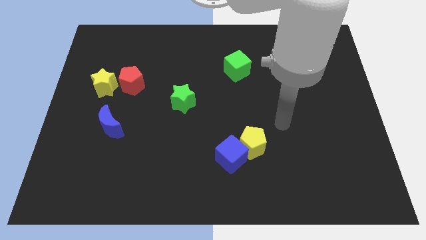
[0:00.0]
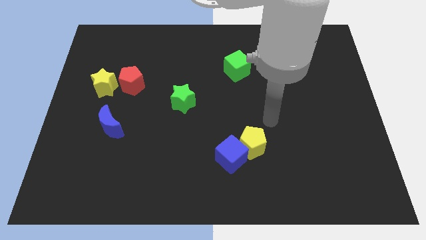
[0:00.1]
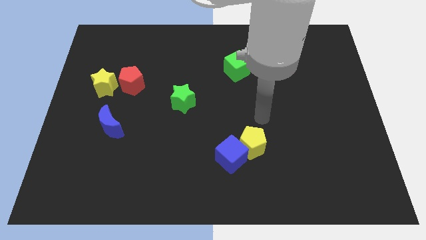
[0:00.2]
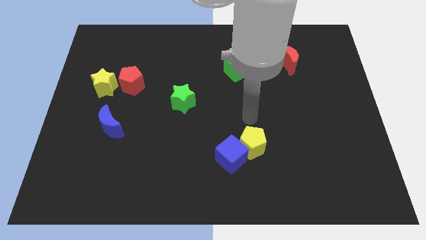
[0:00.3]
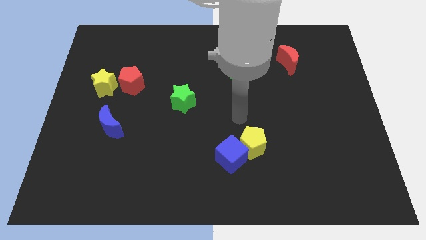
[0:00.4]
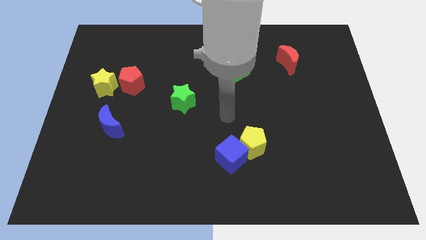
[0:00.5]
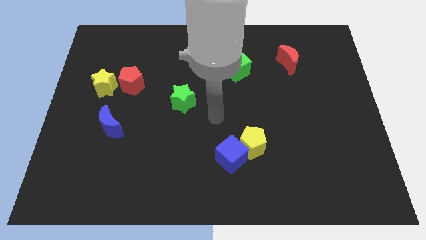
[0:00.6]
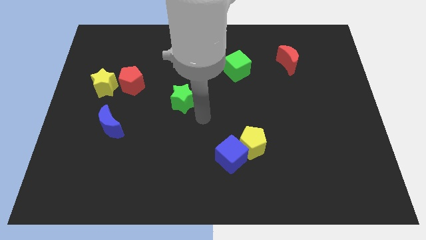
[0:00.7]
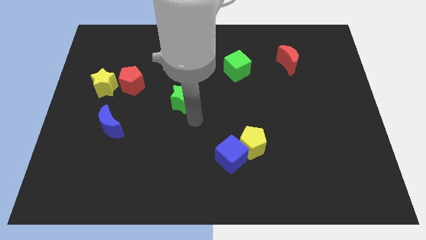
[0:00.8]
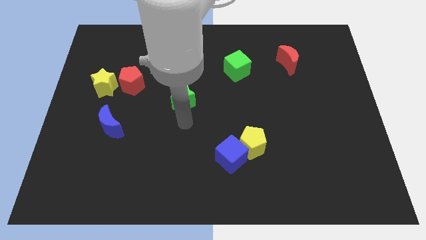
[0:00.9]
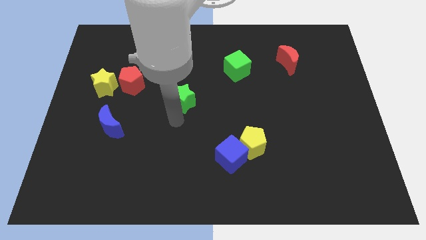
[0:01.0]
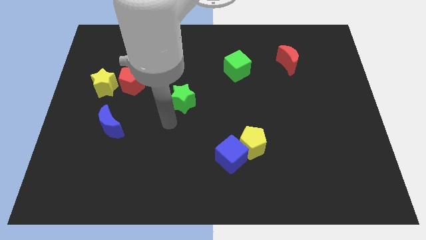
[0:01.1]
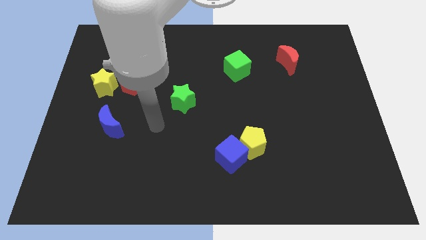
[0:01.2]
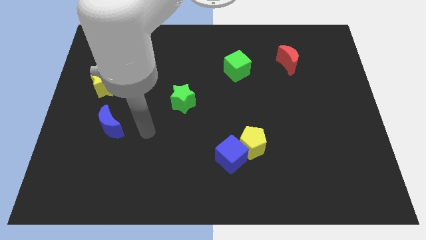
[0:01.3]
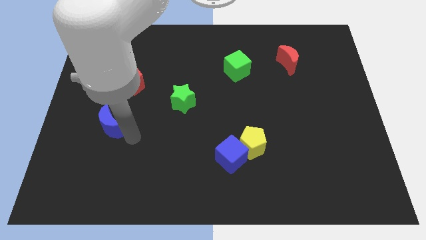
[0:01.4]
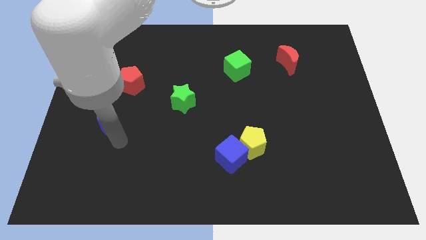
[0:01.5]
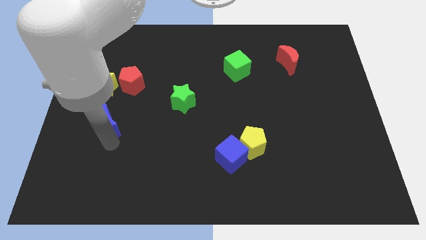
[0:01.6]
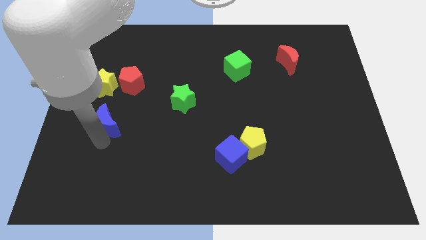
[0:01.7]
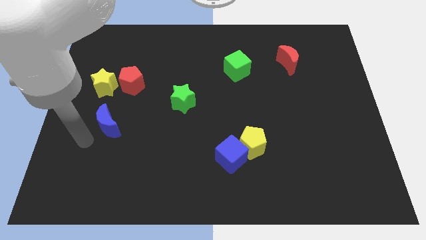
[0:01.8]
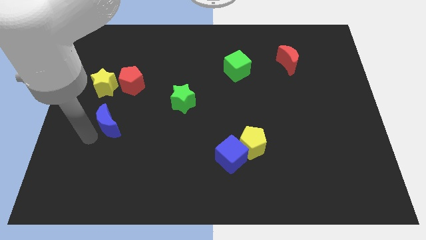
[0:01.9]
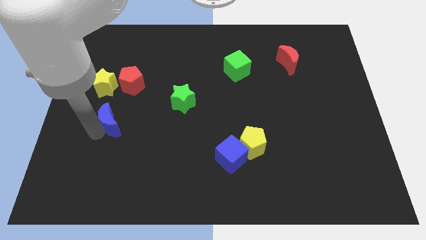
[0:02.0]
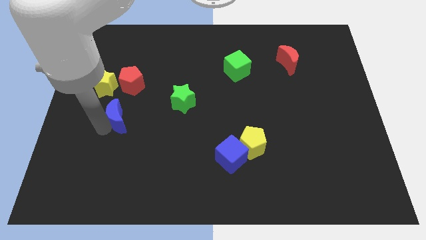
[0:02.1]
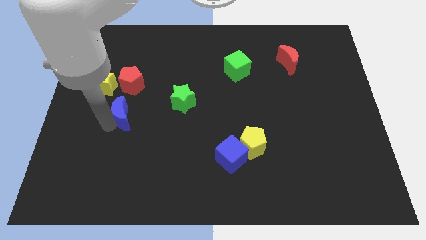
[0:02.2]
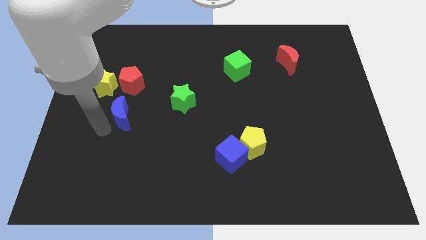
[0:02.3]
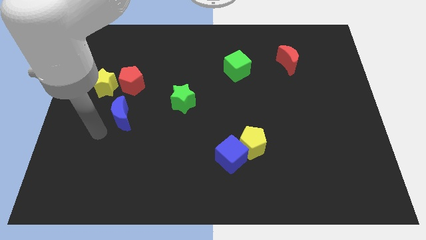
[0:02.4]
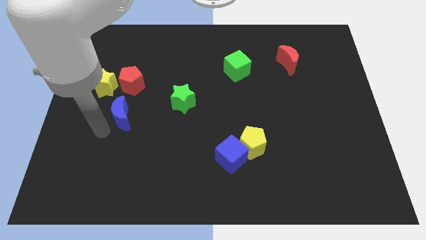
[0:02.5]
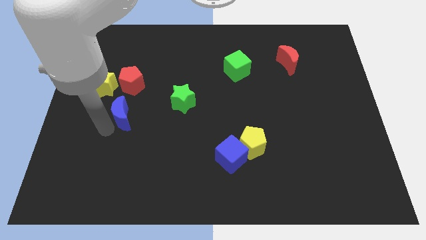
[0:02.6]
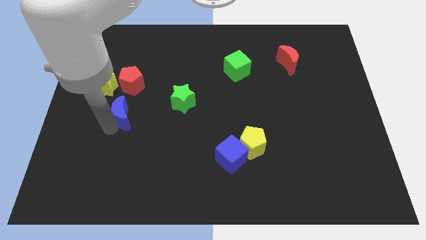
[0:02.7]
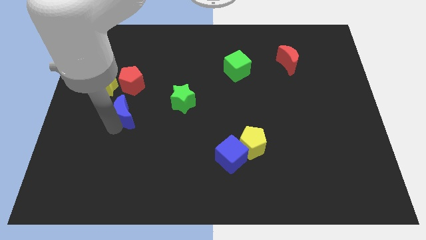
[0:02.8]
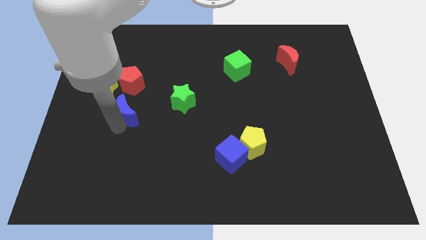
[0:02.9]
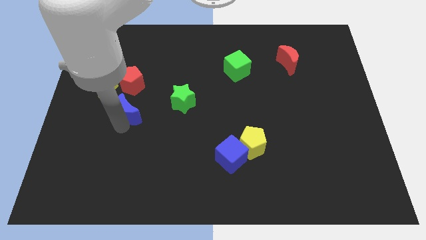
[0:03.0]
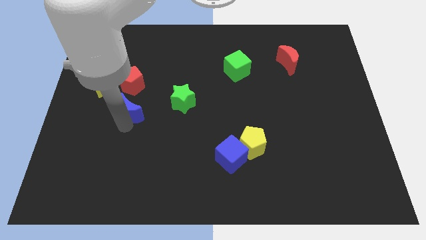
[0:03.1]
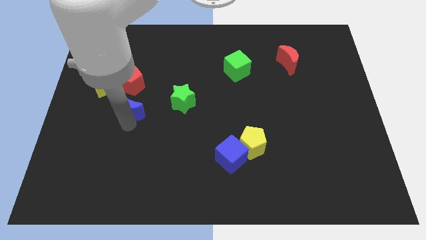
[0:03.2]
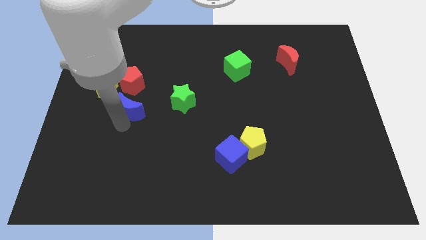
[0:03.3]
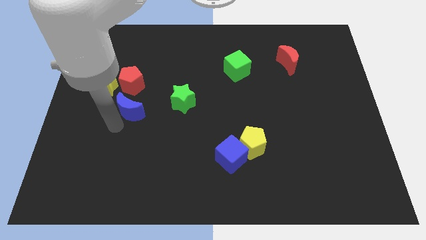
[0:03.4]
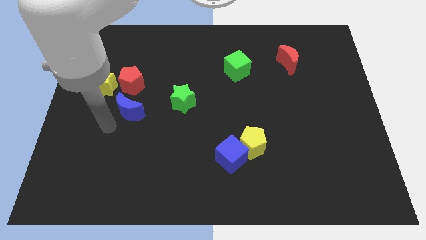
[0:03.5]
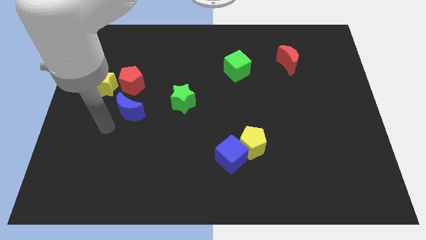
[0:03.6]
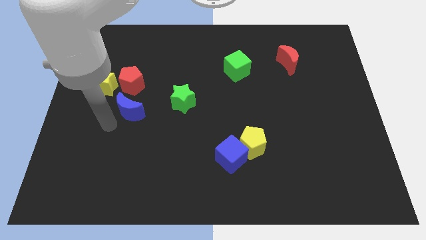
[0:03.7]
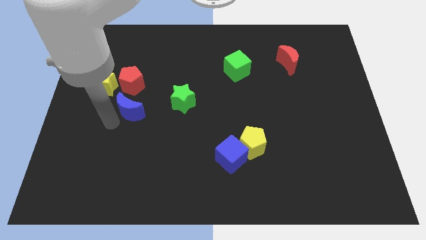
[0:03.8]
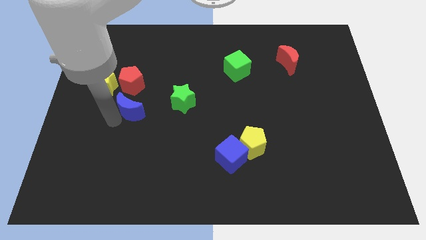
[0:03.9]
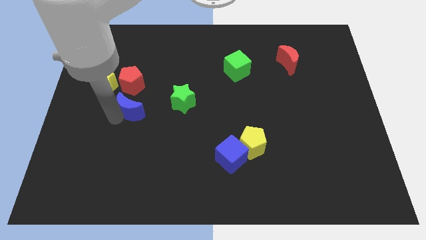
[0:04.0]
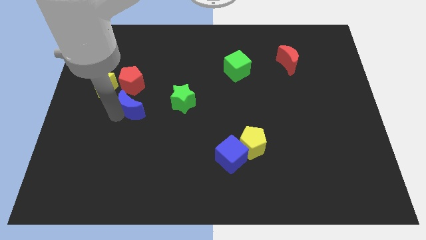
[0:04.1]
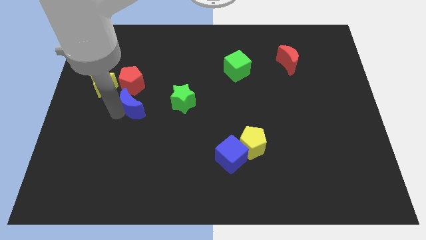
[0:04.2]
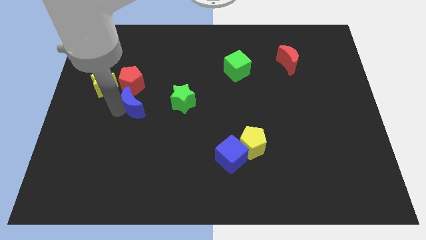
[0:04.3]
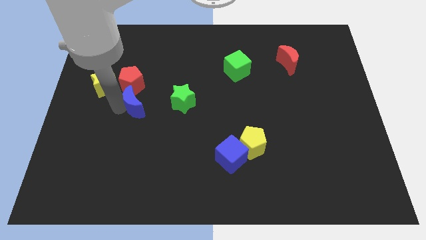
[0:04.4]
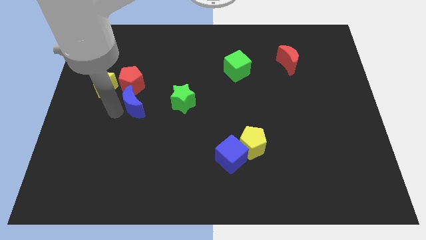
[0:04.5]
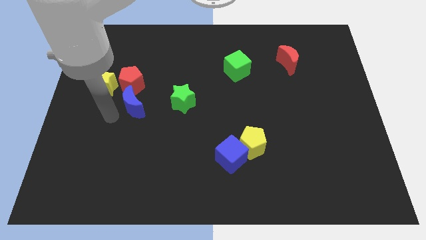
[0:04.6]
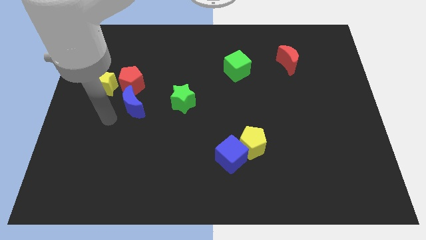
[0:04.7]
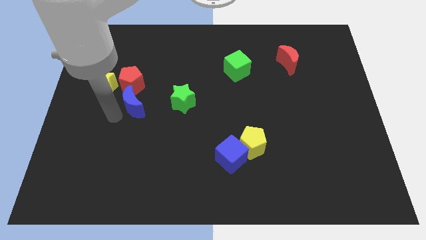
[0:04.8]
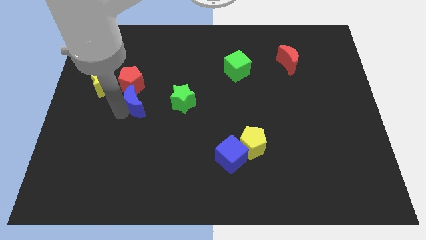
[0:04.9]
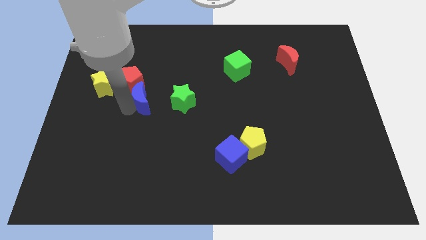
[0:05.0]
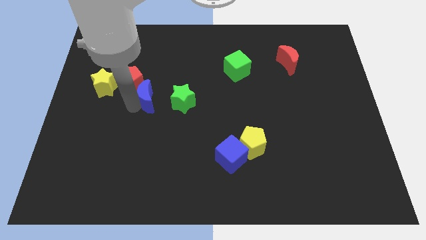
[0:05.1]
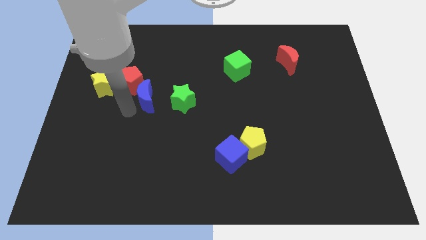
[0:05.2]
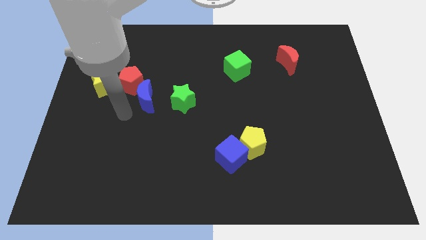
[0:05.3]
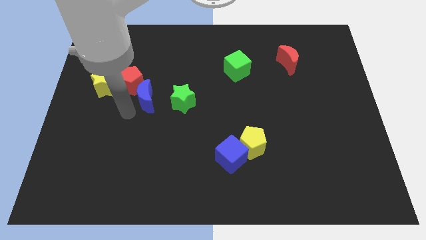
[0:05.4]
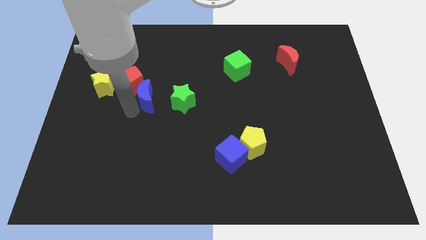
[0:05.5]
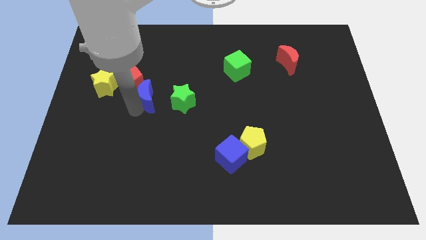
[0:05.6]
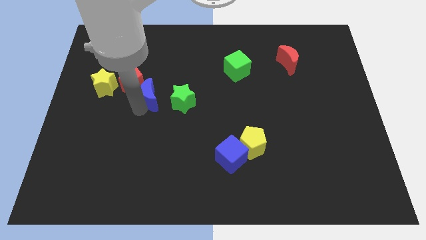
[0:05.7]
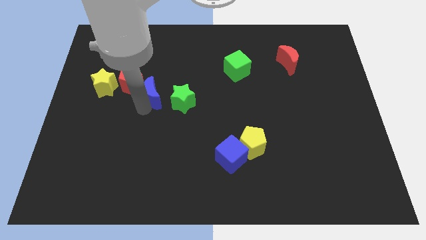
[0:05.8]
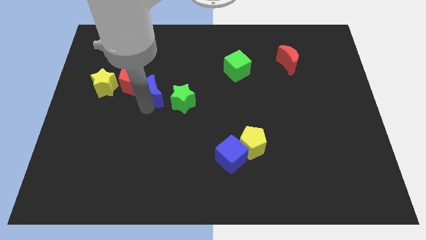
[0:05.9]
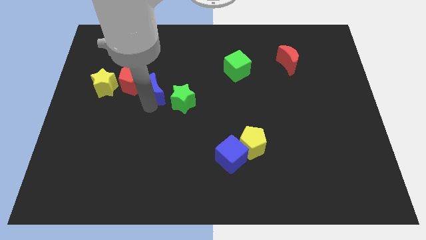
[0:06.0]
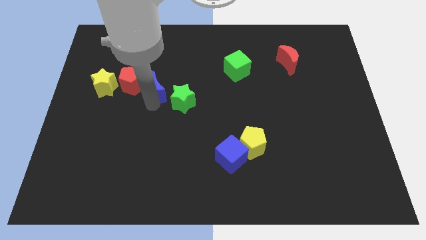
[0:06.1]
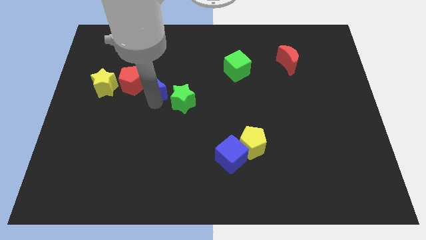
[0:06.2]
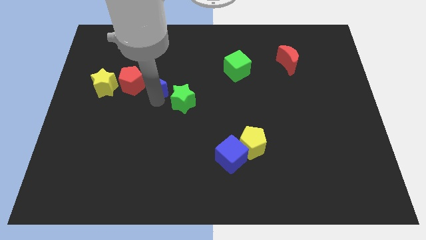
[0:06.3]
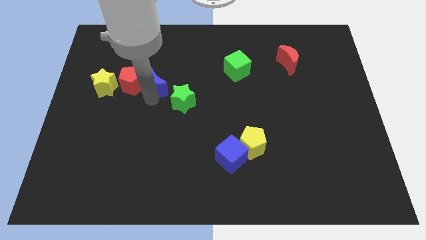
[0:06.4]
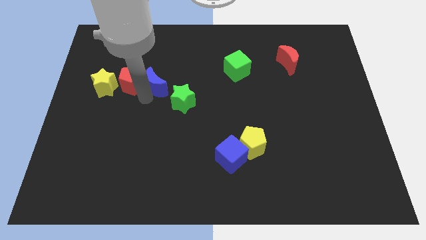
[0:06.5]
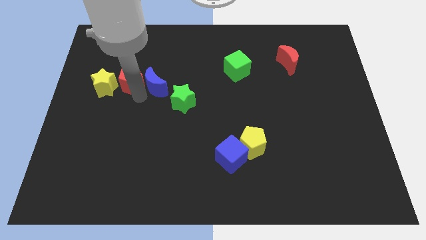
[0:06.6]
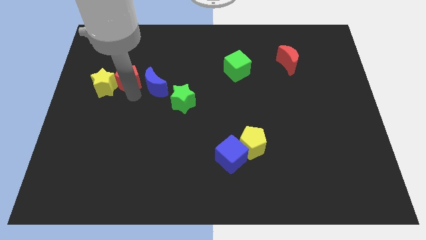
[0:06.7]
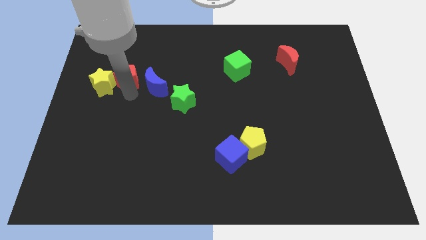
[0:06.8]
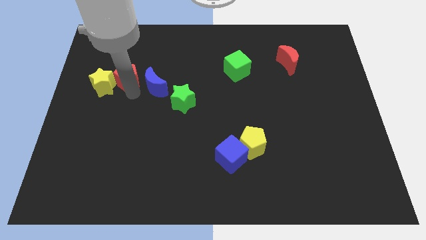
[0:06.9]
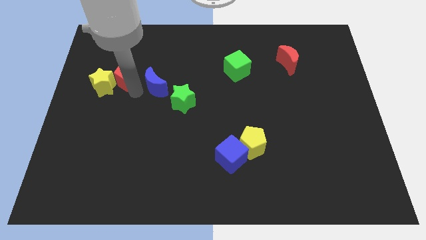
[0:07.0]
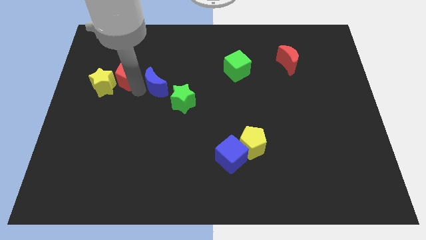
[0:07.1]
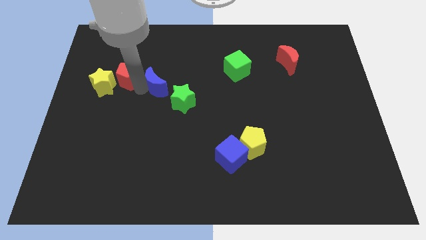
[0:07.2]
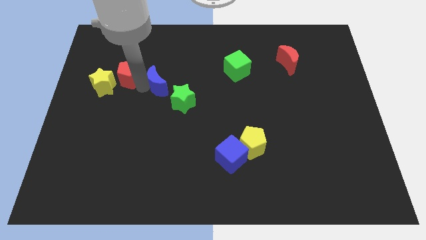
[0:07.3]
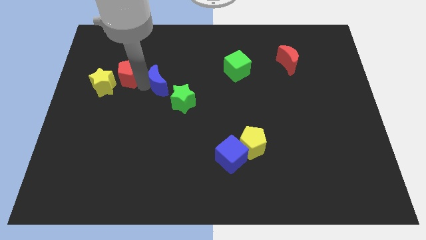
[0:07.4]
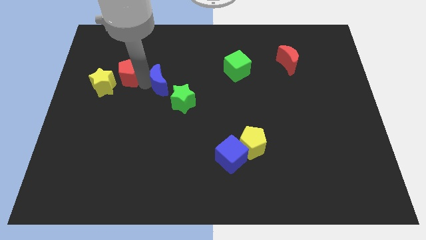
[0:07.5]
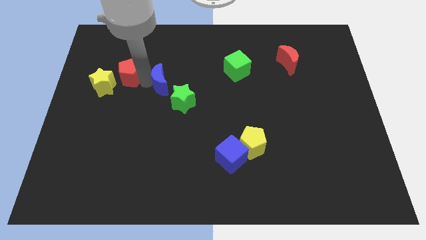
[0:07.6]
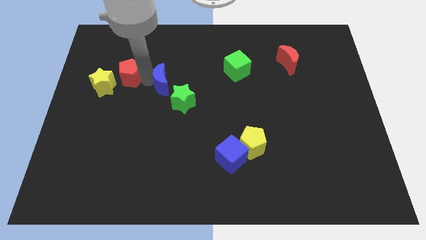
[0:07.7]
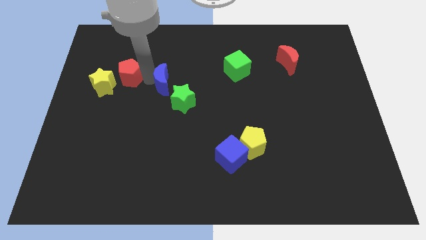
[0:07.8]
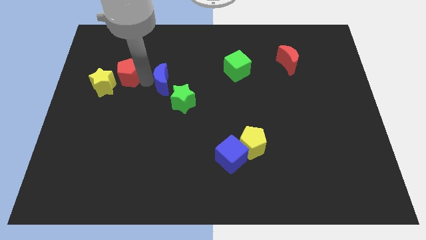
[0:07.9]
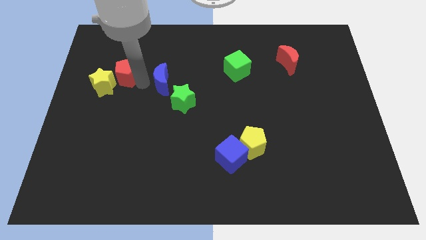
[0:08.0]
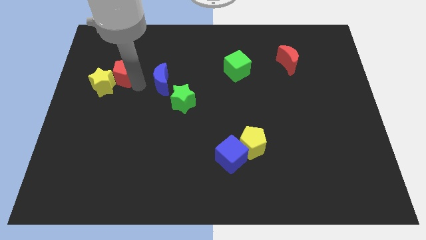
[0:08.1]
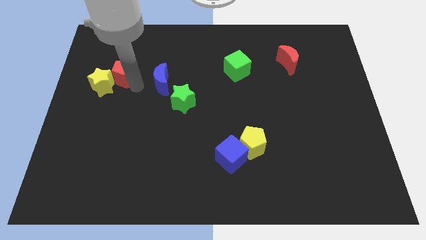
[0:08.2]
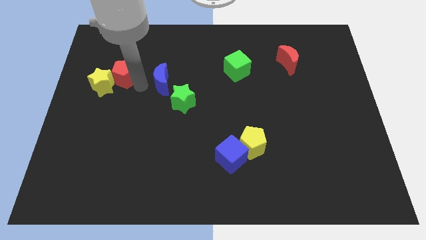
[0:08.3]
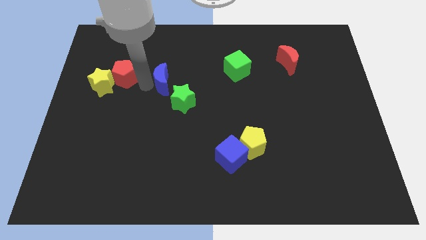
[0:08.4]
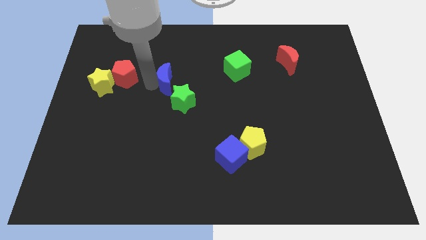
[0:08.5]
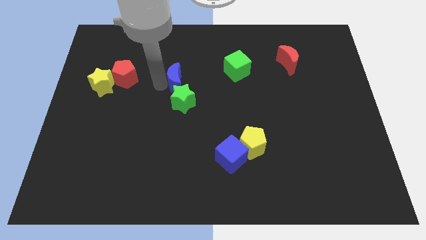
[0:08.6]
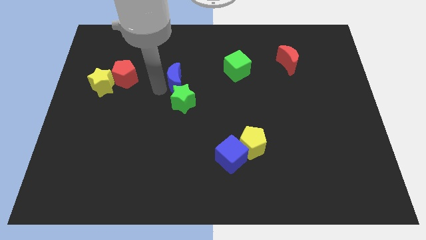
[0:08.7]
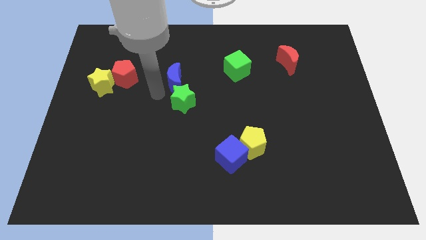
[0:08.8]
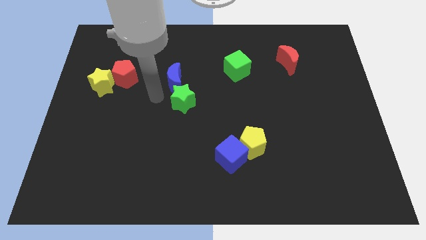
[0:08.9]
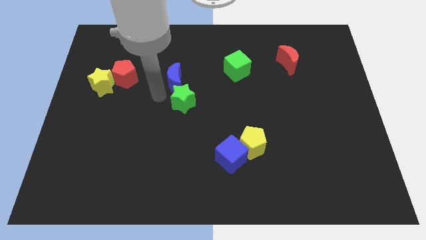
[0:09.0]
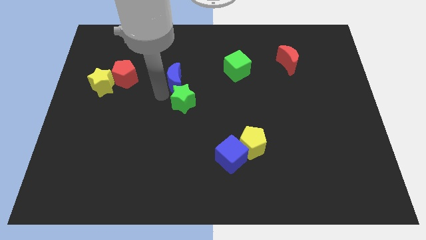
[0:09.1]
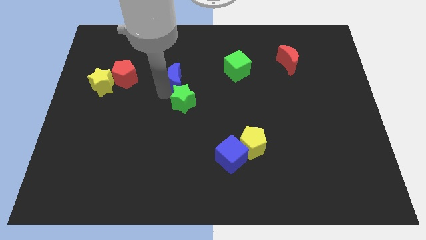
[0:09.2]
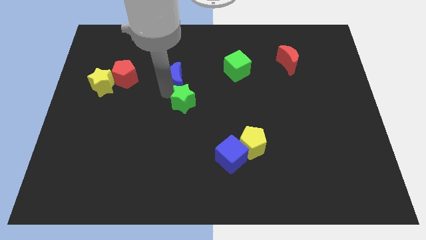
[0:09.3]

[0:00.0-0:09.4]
slide the blue moon upwards and then to the right
